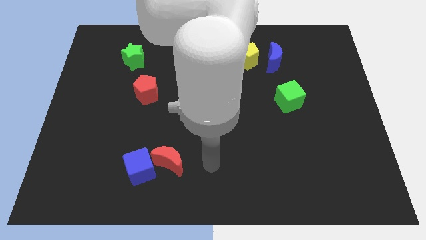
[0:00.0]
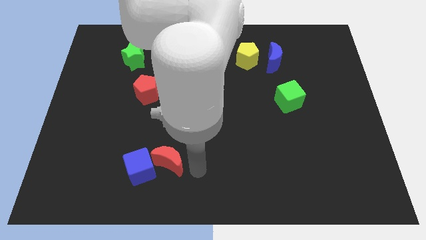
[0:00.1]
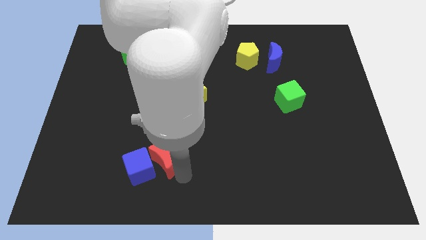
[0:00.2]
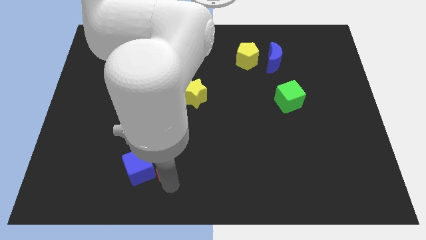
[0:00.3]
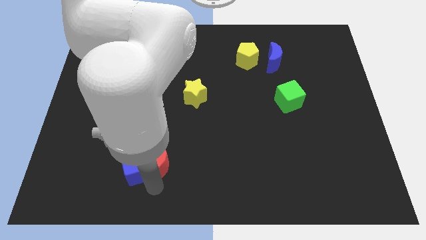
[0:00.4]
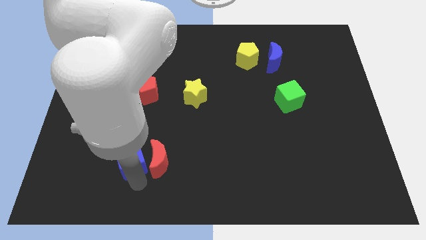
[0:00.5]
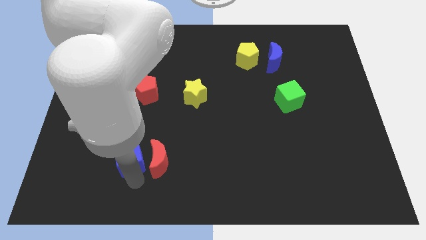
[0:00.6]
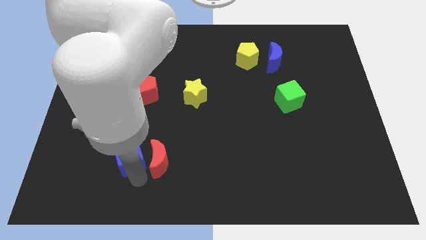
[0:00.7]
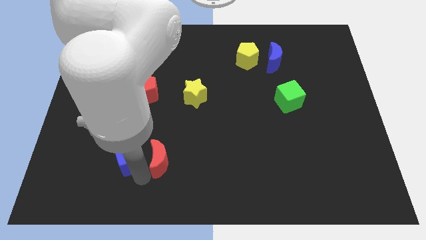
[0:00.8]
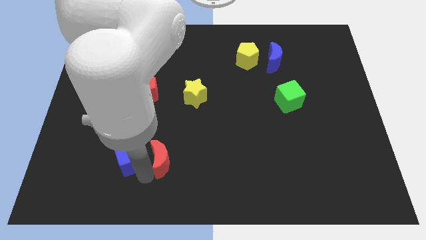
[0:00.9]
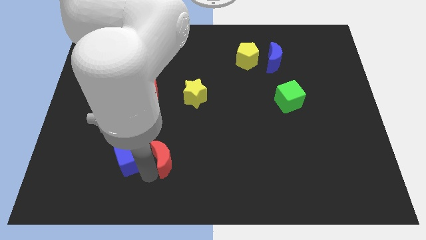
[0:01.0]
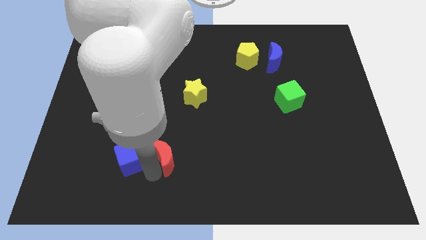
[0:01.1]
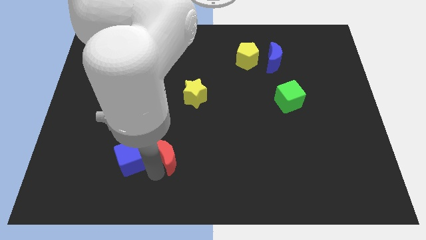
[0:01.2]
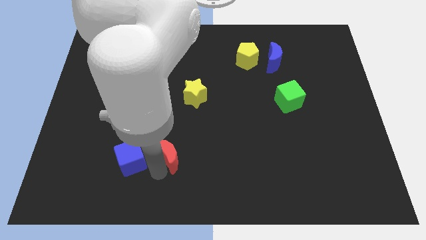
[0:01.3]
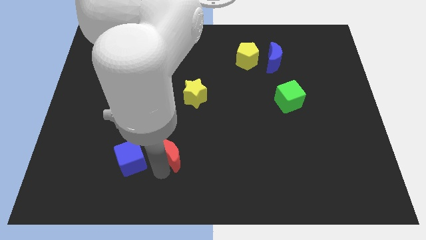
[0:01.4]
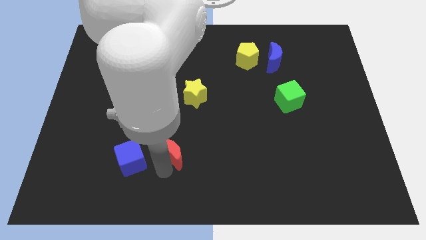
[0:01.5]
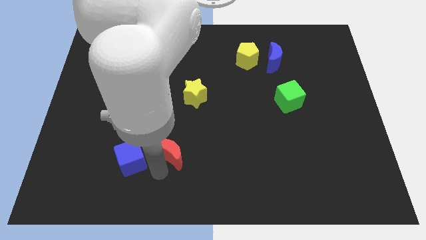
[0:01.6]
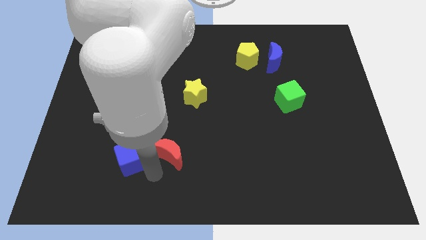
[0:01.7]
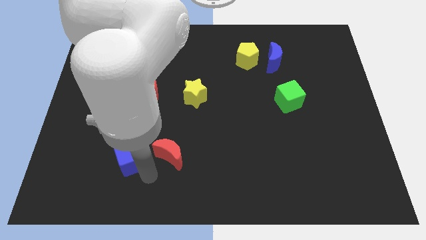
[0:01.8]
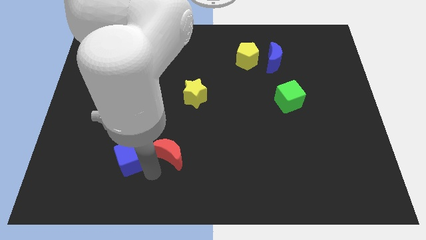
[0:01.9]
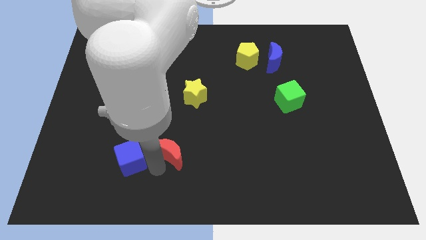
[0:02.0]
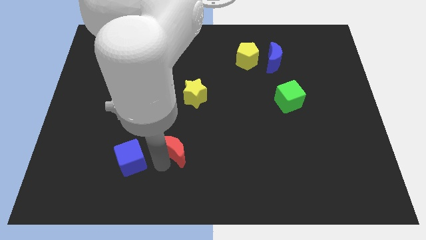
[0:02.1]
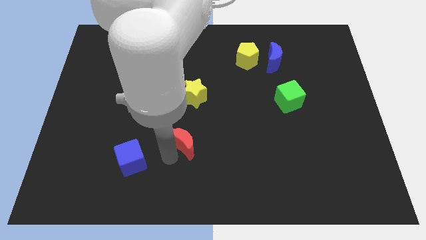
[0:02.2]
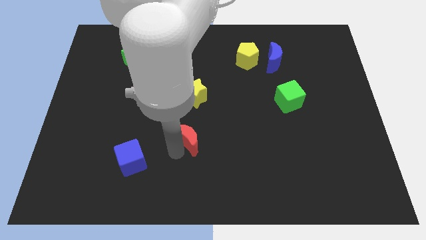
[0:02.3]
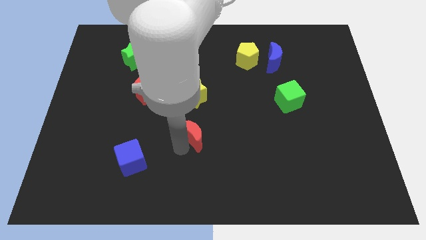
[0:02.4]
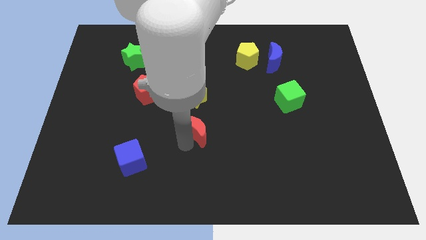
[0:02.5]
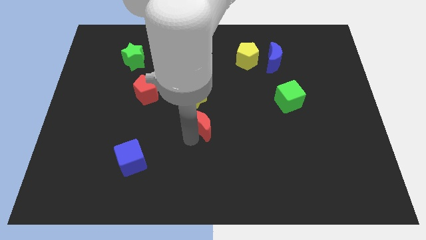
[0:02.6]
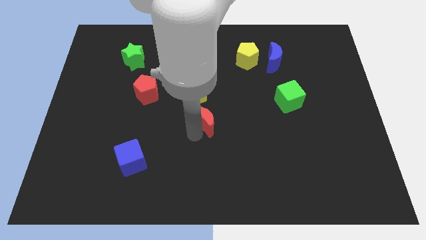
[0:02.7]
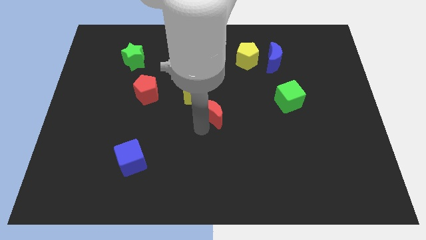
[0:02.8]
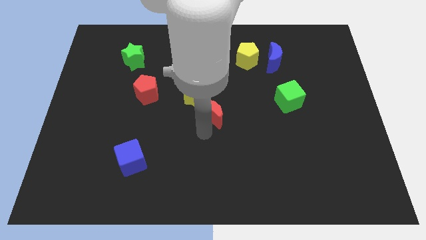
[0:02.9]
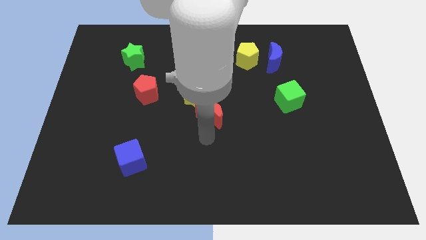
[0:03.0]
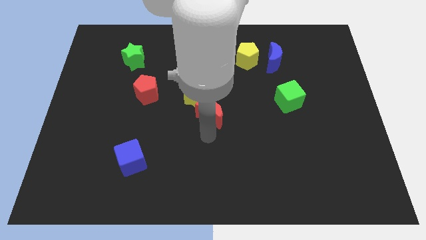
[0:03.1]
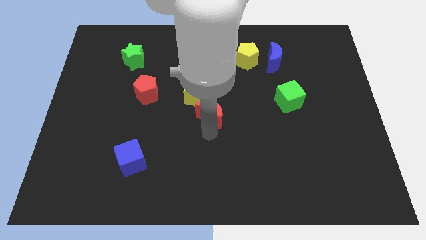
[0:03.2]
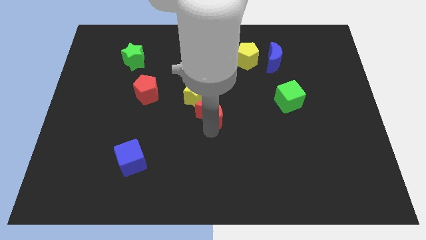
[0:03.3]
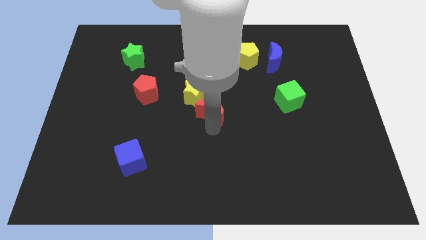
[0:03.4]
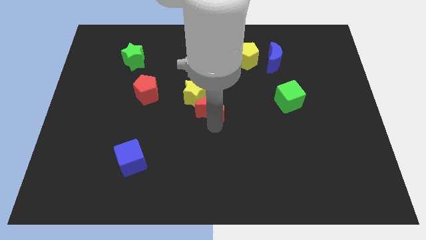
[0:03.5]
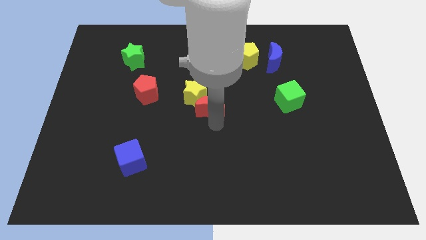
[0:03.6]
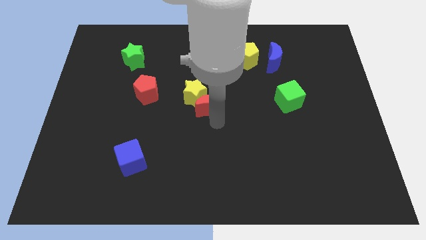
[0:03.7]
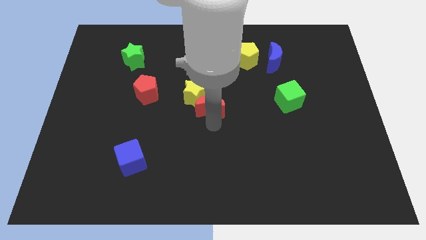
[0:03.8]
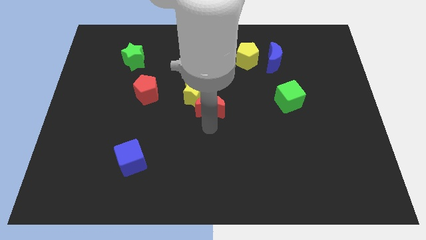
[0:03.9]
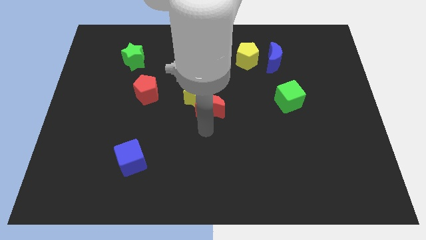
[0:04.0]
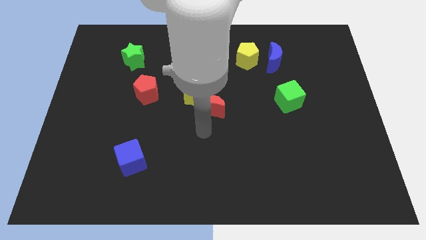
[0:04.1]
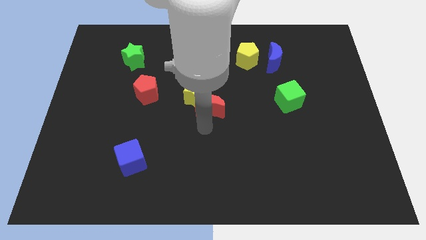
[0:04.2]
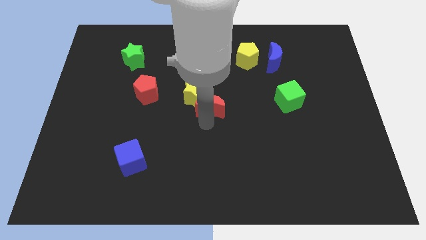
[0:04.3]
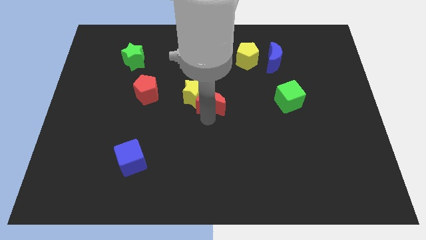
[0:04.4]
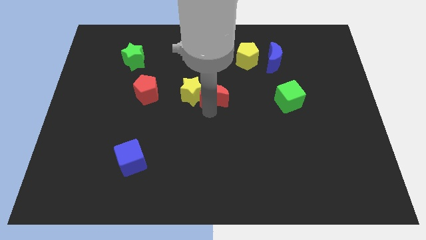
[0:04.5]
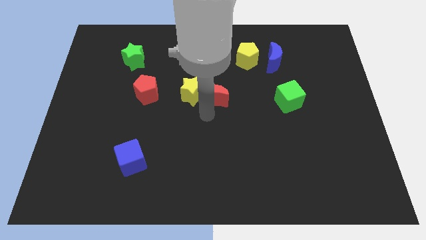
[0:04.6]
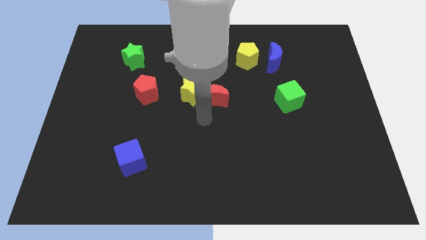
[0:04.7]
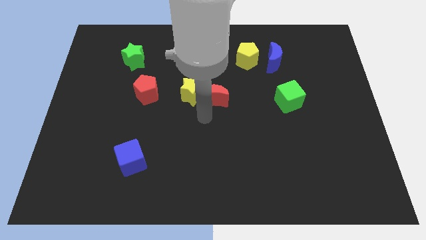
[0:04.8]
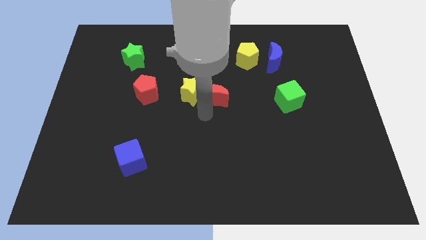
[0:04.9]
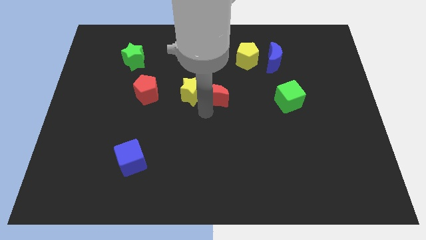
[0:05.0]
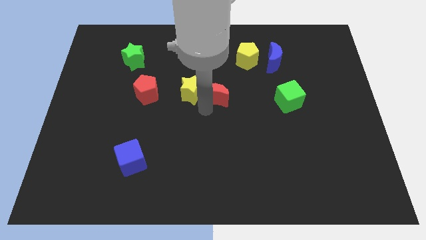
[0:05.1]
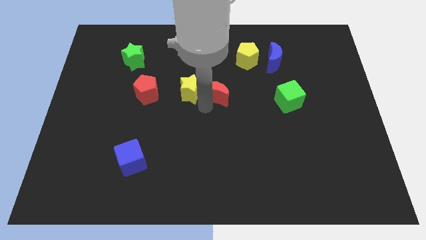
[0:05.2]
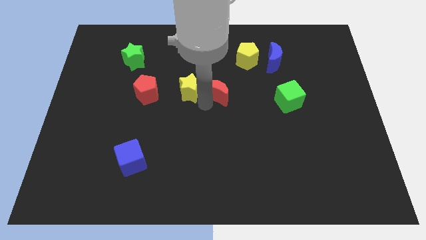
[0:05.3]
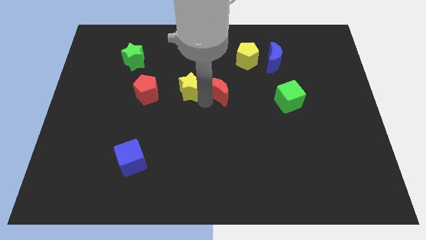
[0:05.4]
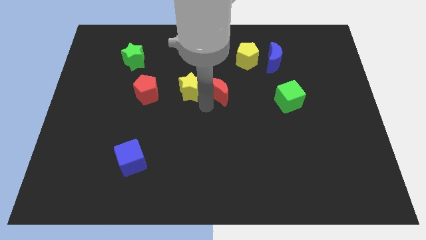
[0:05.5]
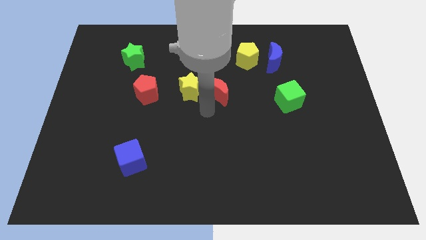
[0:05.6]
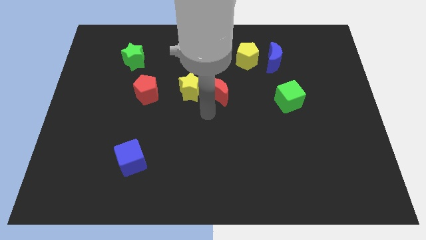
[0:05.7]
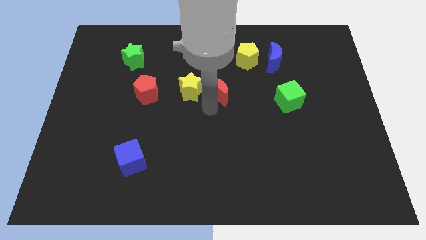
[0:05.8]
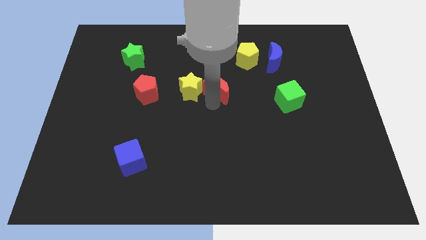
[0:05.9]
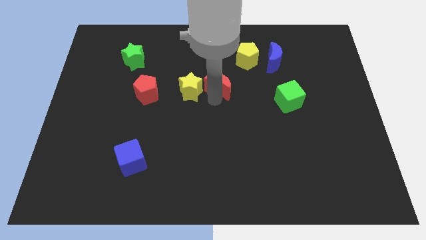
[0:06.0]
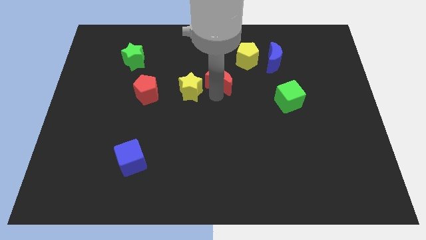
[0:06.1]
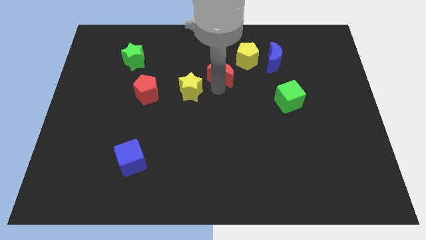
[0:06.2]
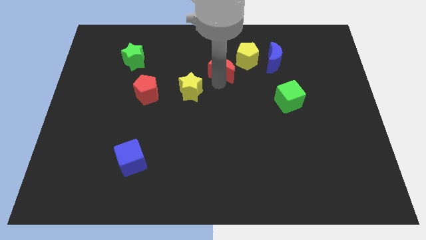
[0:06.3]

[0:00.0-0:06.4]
move the red moon left of the blue moon
